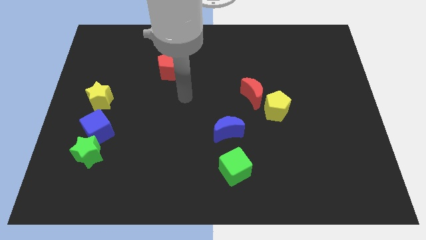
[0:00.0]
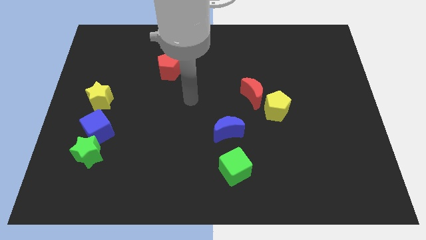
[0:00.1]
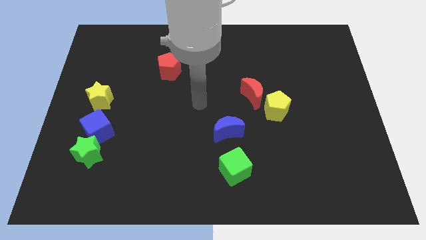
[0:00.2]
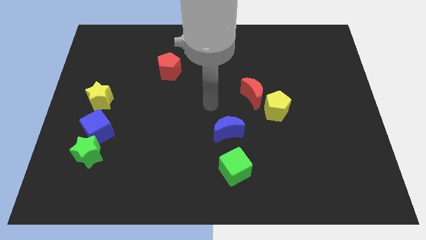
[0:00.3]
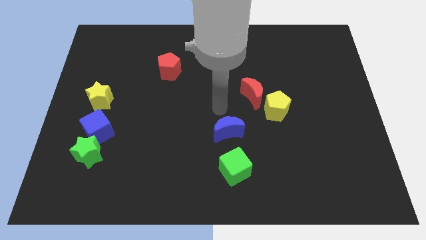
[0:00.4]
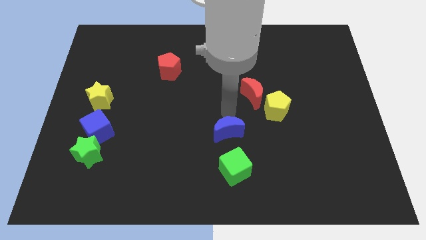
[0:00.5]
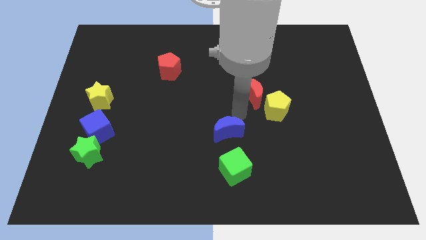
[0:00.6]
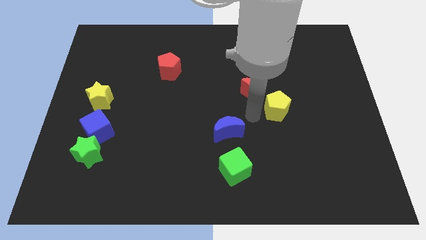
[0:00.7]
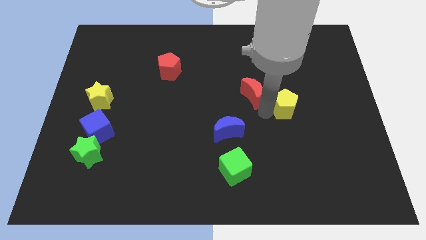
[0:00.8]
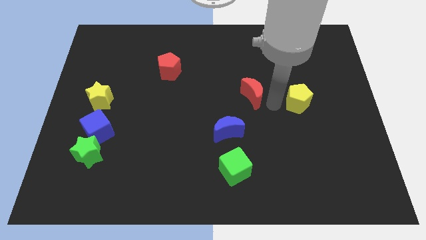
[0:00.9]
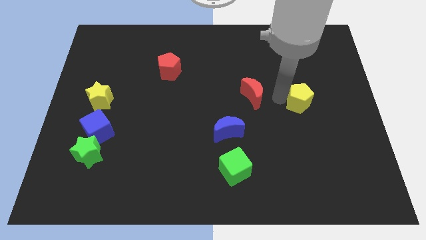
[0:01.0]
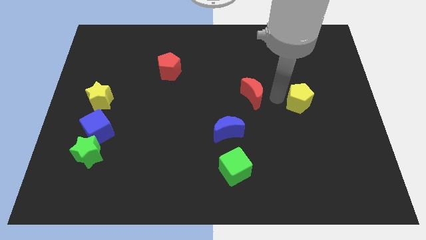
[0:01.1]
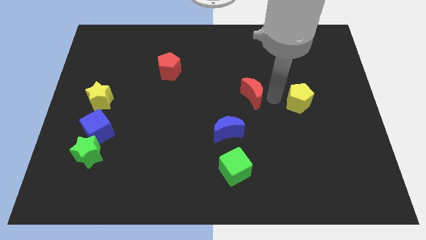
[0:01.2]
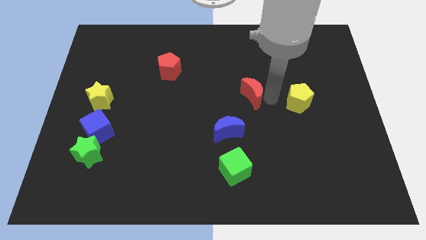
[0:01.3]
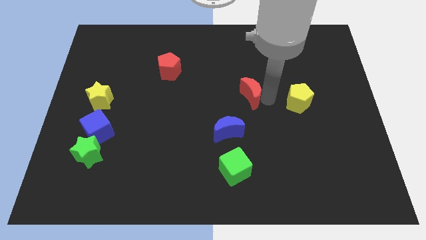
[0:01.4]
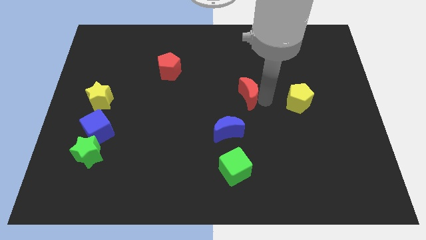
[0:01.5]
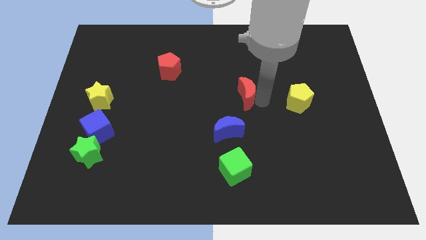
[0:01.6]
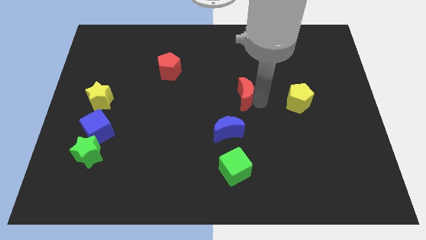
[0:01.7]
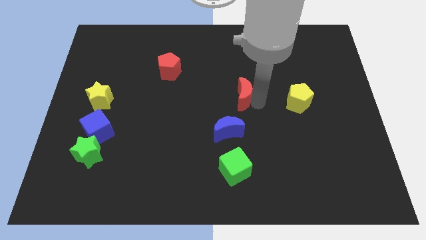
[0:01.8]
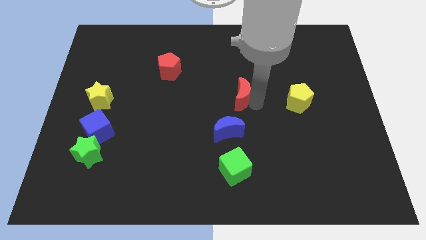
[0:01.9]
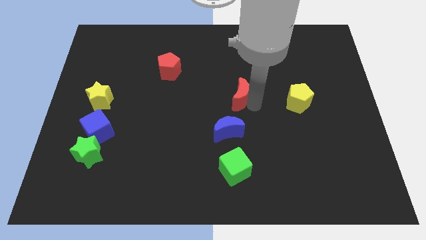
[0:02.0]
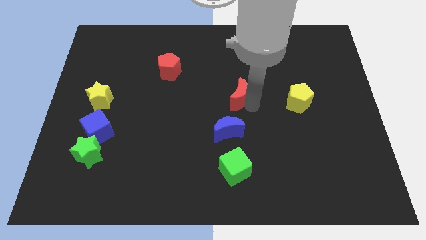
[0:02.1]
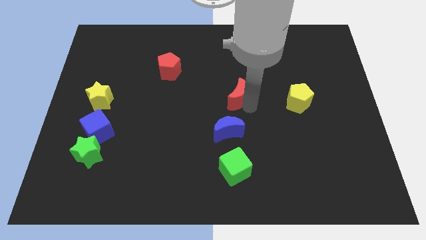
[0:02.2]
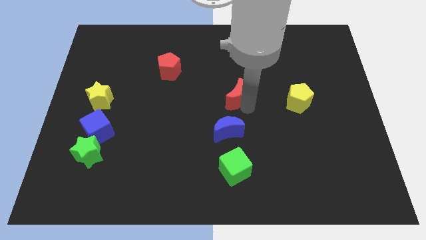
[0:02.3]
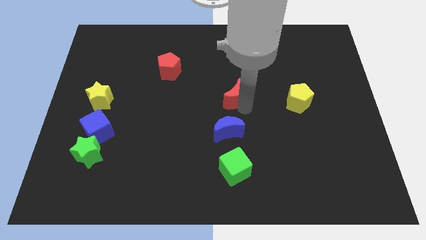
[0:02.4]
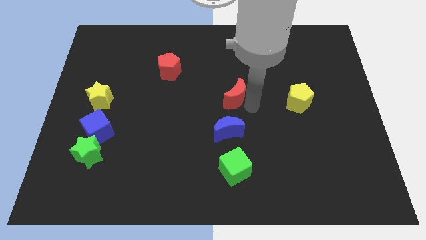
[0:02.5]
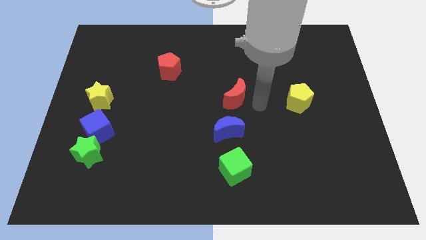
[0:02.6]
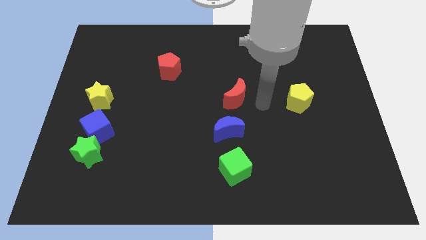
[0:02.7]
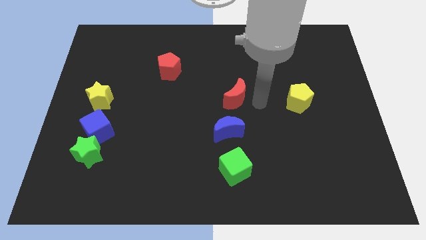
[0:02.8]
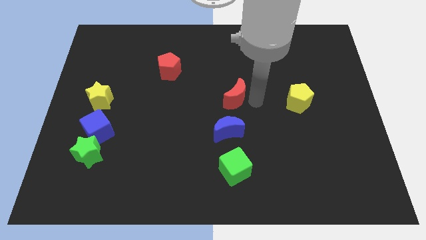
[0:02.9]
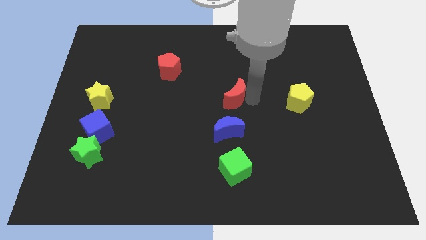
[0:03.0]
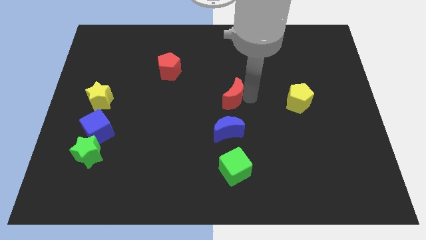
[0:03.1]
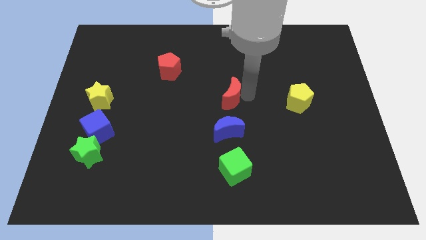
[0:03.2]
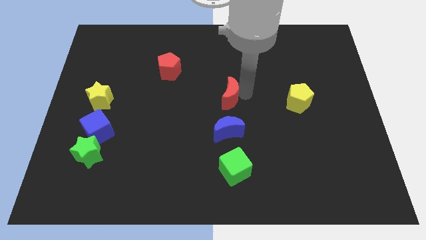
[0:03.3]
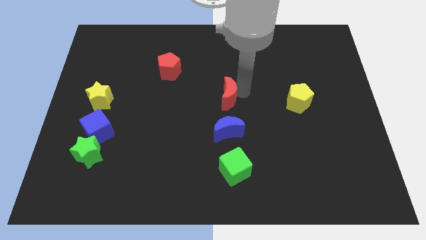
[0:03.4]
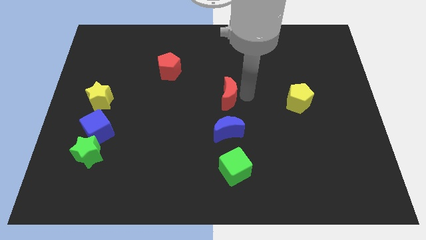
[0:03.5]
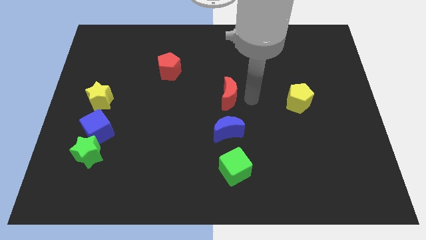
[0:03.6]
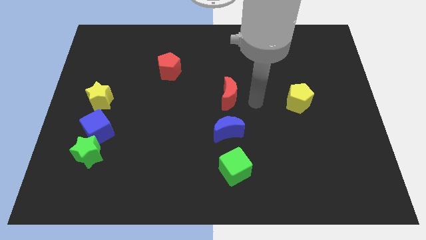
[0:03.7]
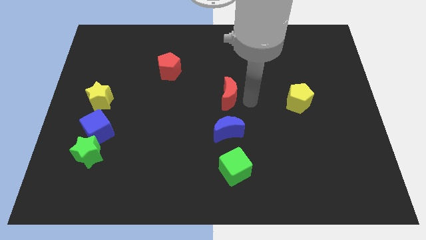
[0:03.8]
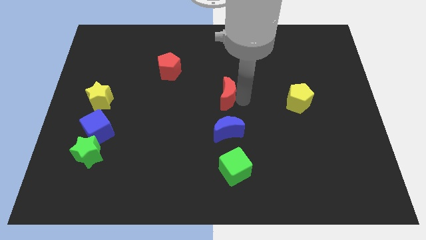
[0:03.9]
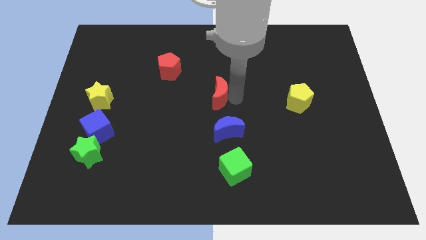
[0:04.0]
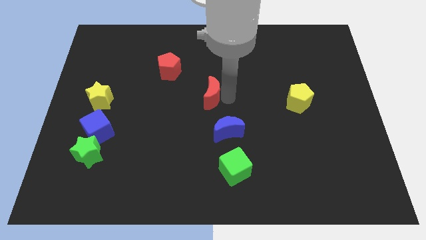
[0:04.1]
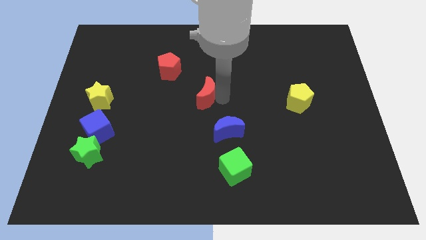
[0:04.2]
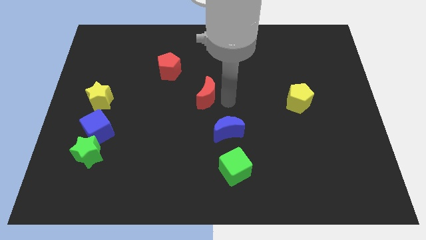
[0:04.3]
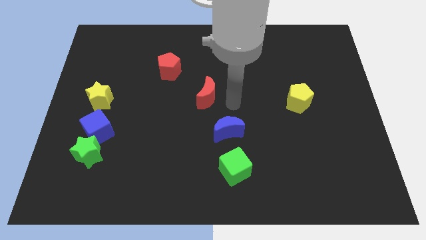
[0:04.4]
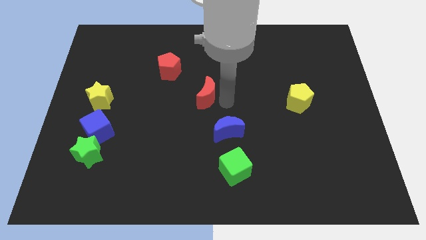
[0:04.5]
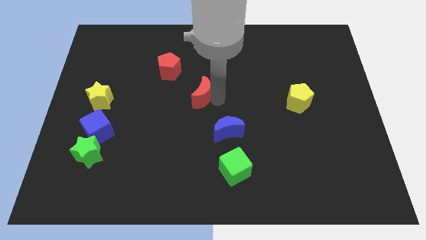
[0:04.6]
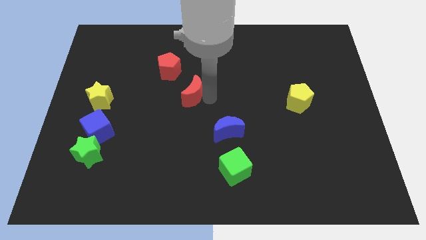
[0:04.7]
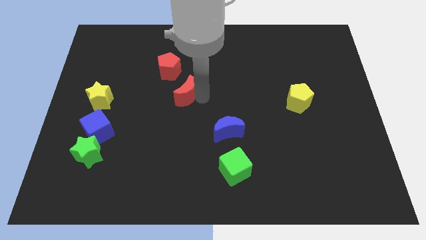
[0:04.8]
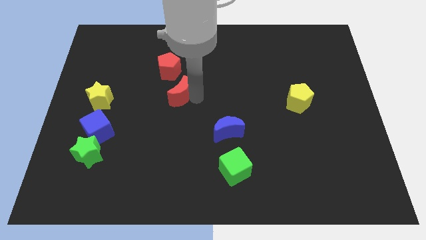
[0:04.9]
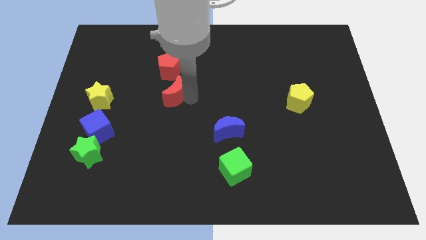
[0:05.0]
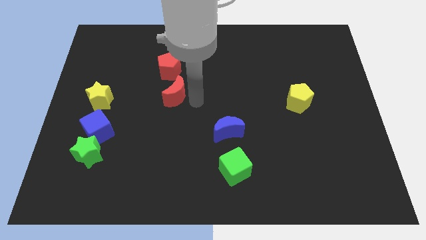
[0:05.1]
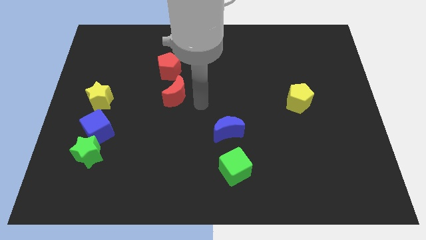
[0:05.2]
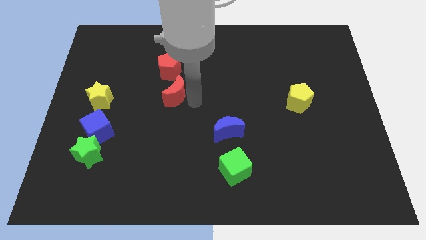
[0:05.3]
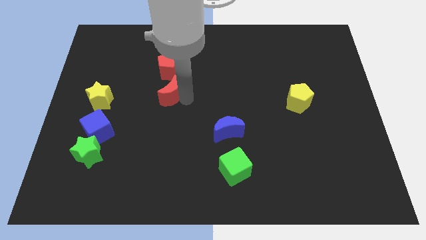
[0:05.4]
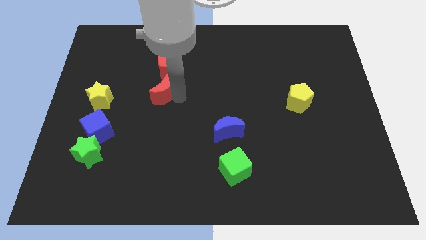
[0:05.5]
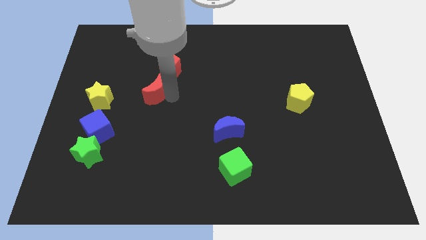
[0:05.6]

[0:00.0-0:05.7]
put the red moon diagonally down and to the left of the red pentagon

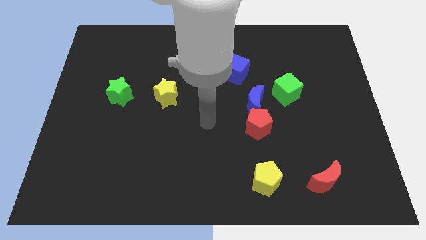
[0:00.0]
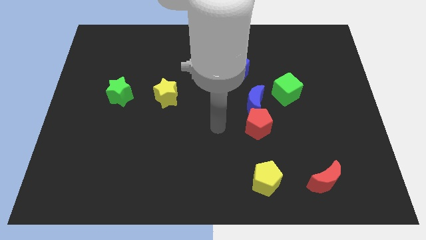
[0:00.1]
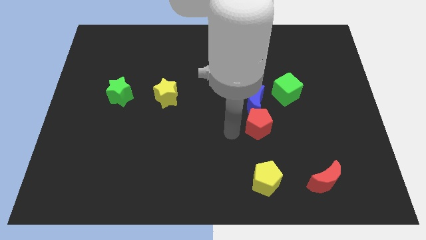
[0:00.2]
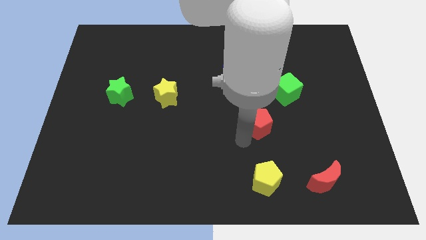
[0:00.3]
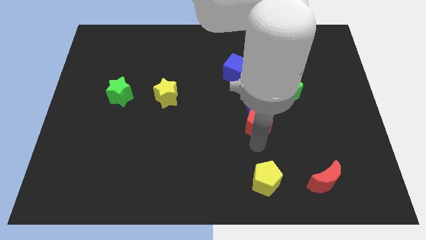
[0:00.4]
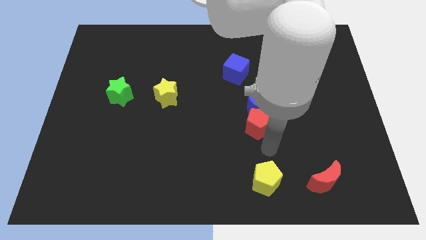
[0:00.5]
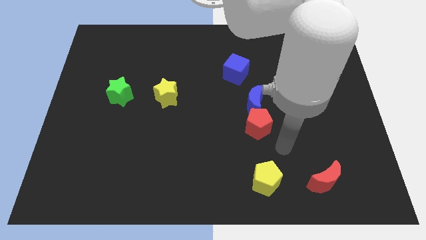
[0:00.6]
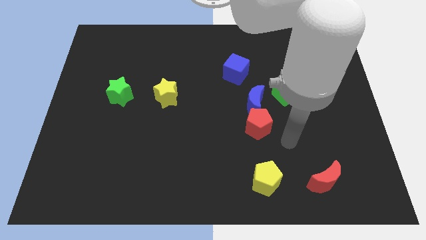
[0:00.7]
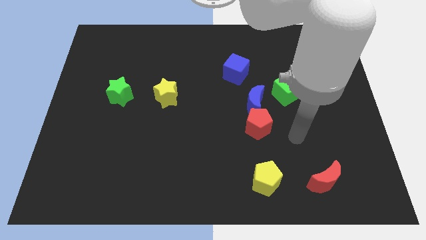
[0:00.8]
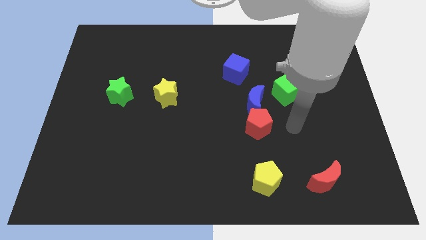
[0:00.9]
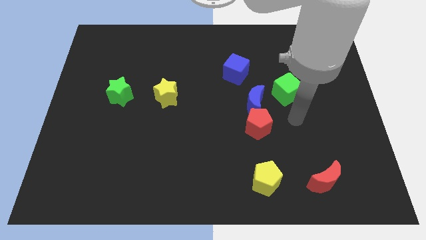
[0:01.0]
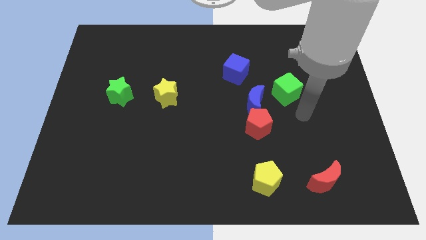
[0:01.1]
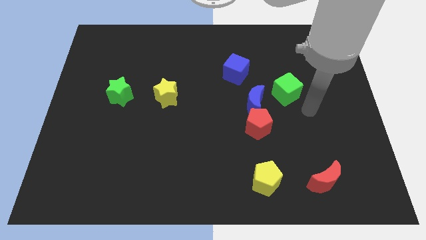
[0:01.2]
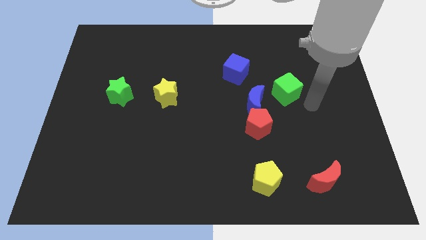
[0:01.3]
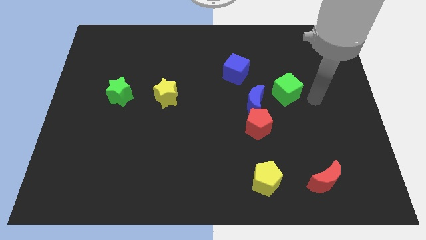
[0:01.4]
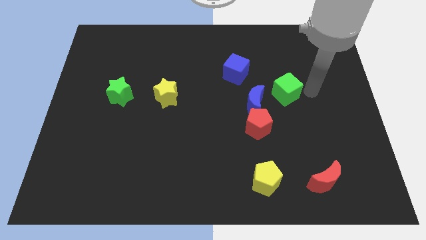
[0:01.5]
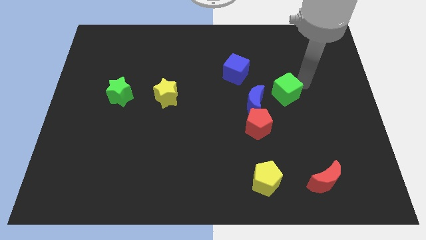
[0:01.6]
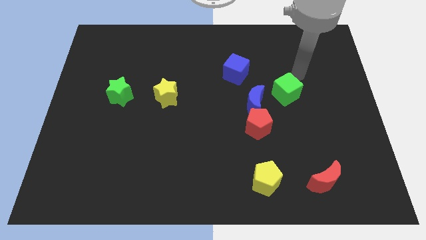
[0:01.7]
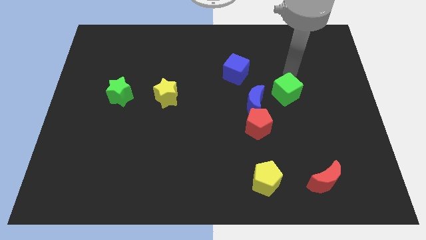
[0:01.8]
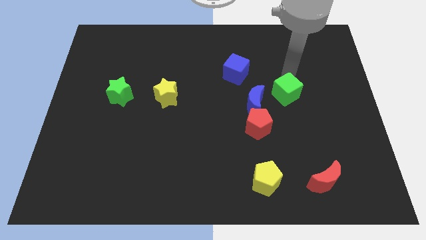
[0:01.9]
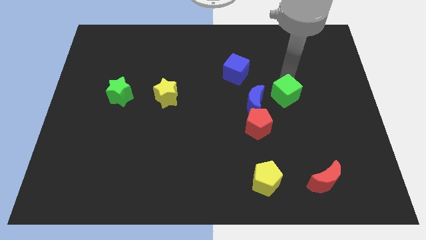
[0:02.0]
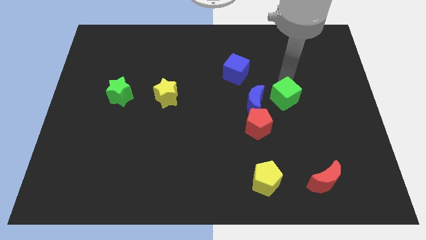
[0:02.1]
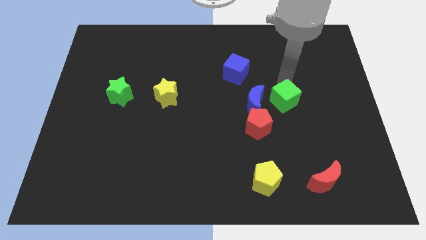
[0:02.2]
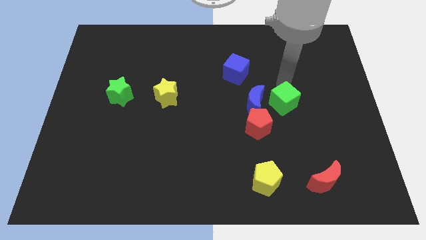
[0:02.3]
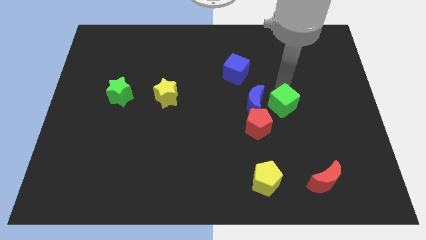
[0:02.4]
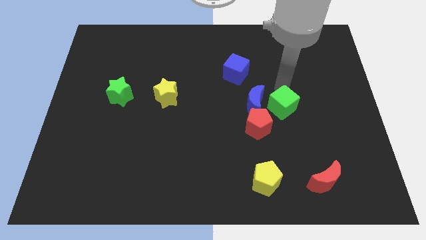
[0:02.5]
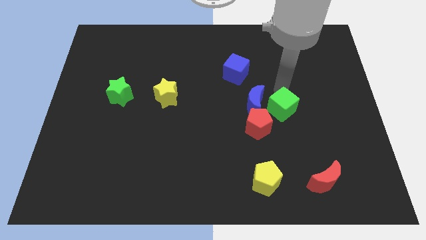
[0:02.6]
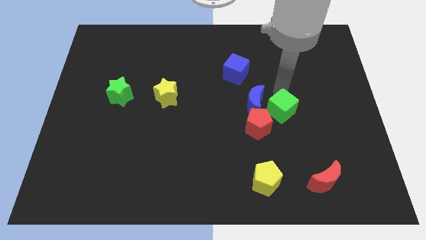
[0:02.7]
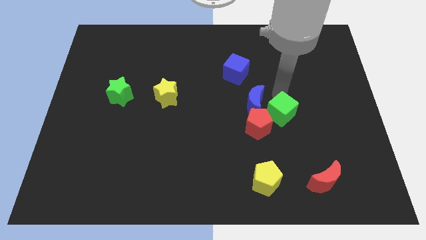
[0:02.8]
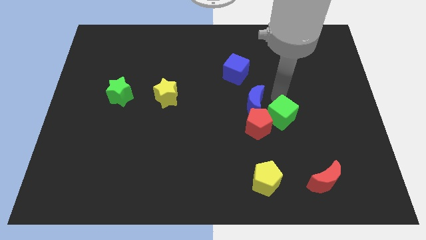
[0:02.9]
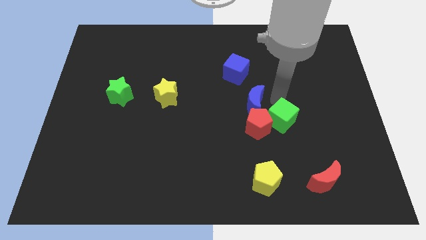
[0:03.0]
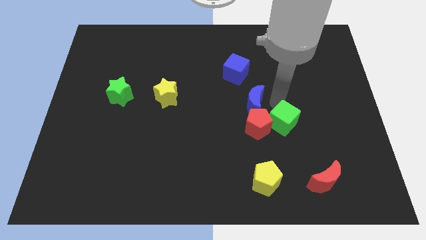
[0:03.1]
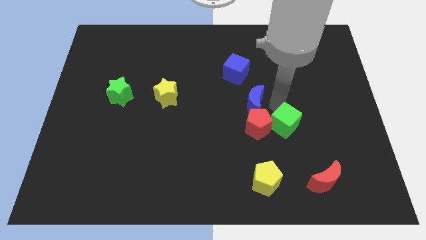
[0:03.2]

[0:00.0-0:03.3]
put the green cube to the bottom right of the red pentagon
